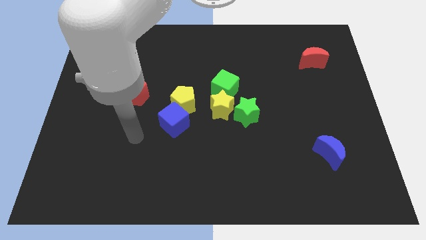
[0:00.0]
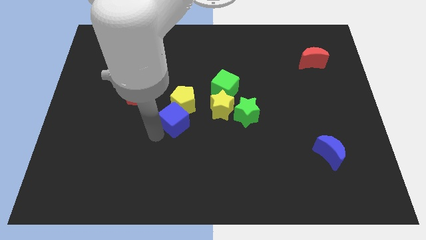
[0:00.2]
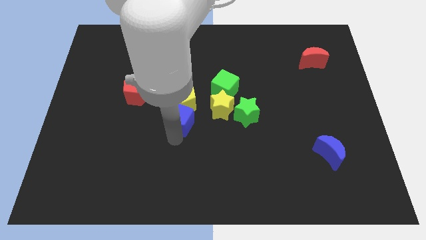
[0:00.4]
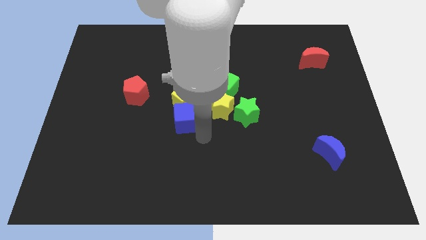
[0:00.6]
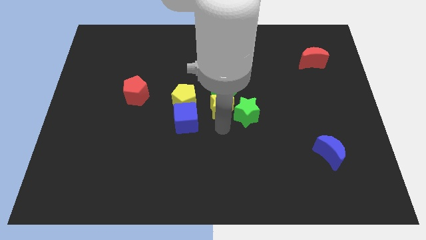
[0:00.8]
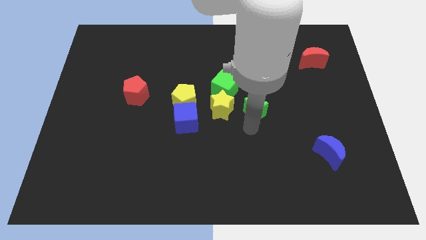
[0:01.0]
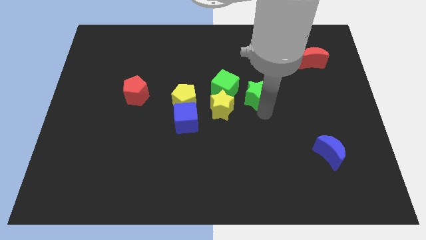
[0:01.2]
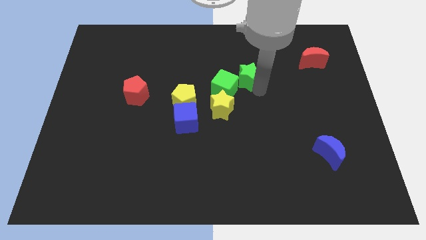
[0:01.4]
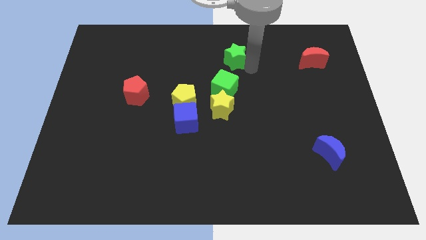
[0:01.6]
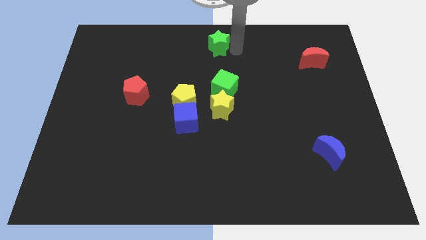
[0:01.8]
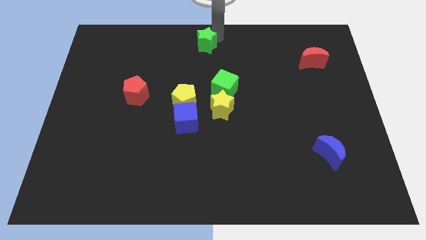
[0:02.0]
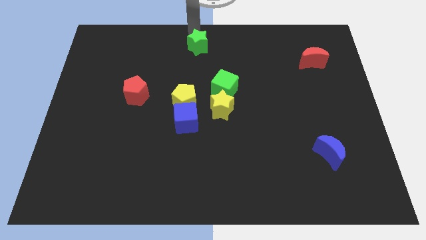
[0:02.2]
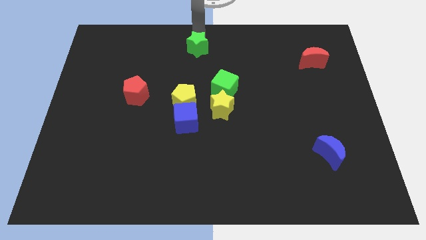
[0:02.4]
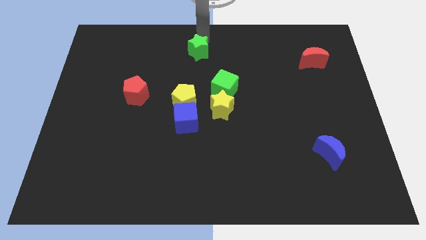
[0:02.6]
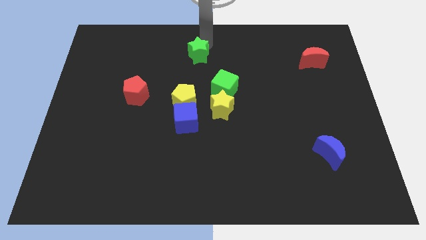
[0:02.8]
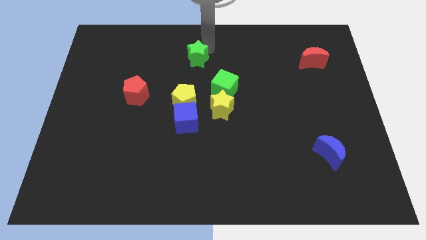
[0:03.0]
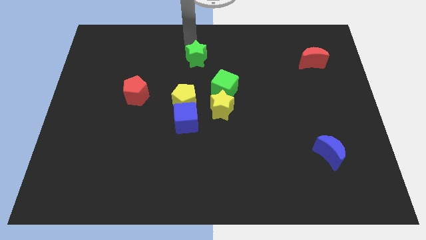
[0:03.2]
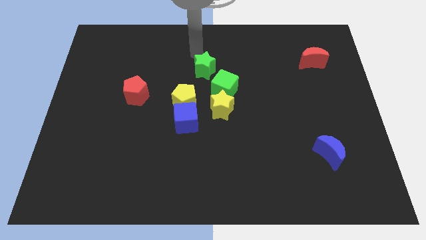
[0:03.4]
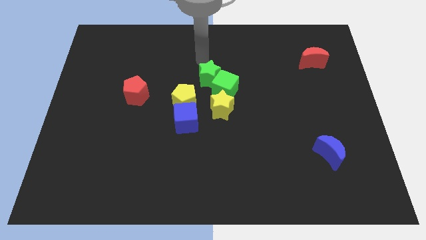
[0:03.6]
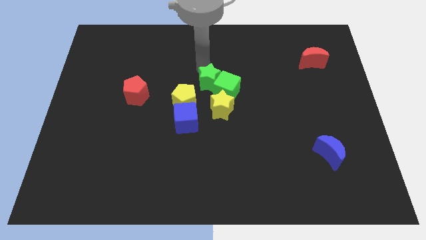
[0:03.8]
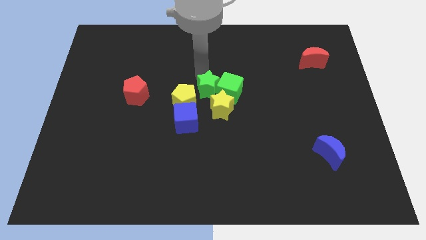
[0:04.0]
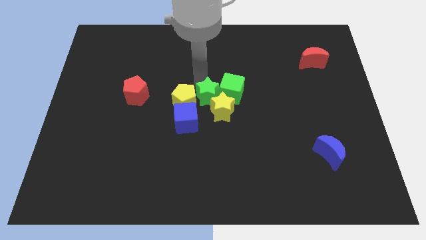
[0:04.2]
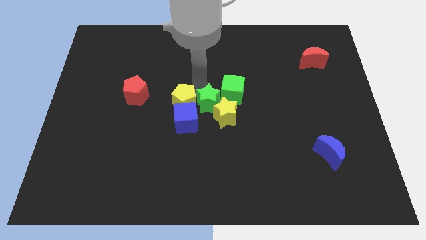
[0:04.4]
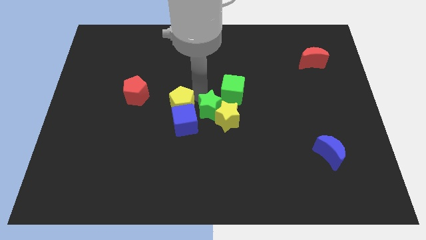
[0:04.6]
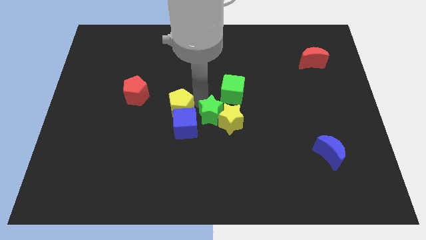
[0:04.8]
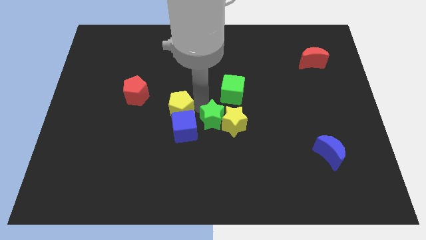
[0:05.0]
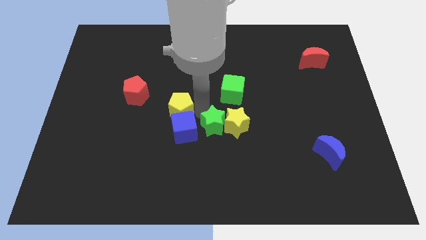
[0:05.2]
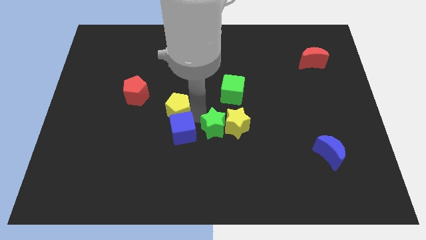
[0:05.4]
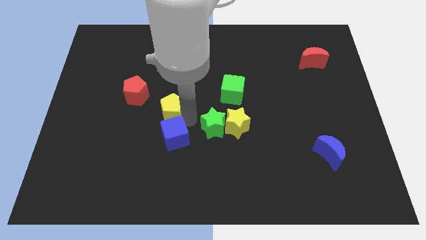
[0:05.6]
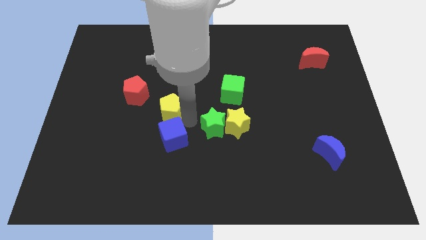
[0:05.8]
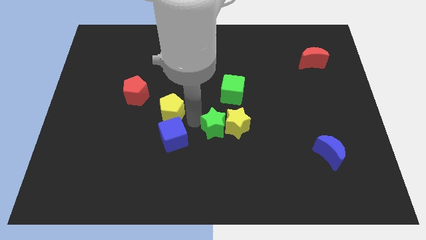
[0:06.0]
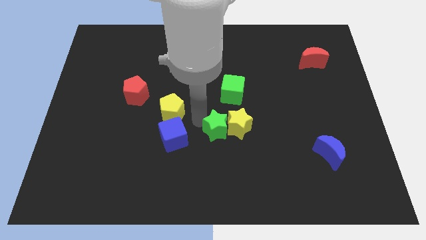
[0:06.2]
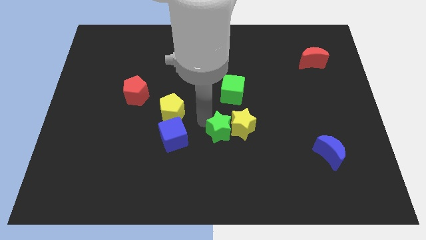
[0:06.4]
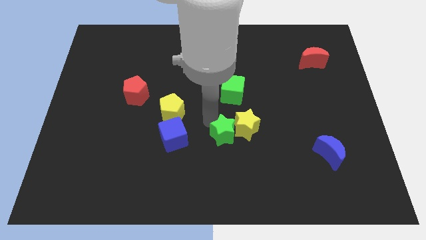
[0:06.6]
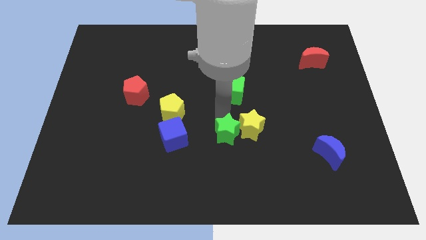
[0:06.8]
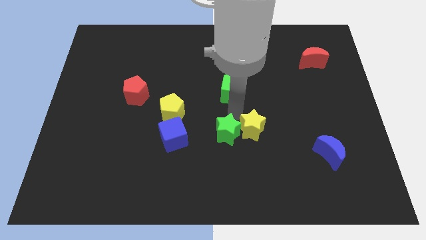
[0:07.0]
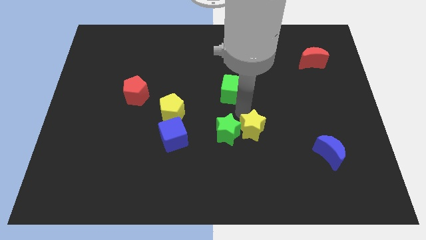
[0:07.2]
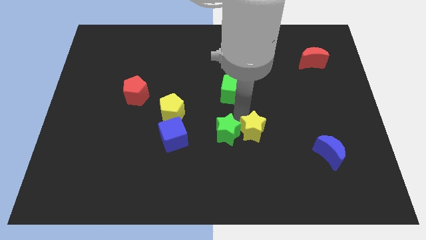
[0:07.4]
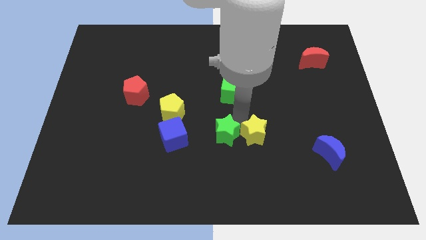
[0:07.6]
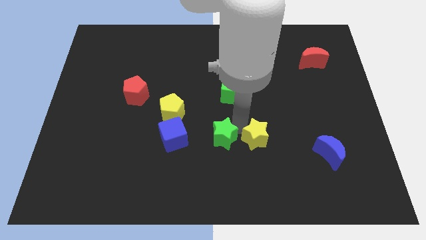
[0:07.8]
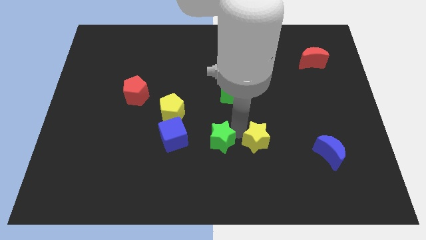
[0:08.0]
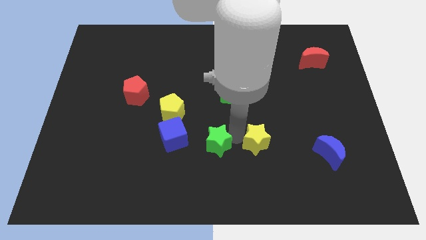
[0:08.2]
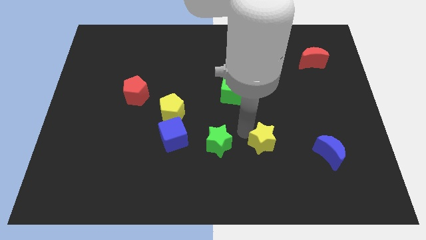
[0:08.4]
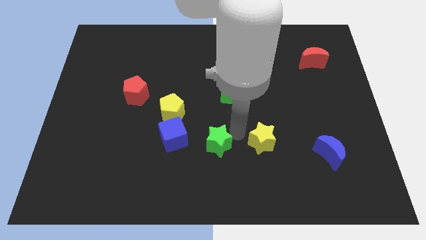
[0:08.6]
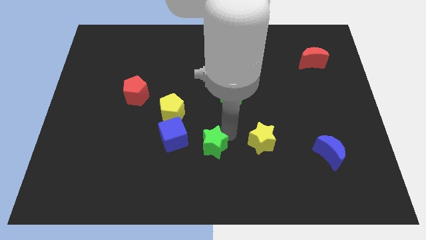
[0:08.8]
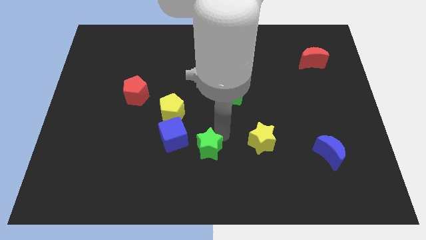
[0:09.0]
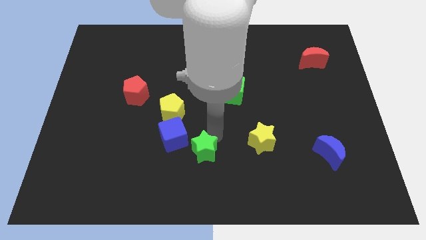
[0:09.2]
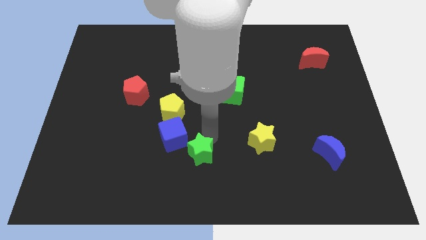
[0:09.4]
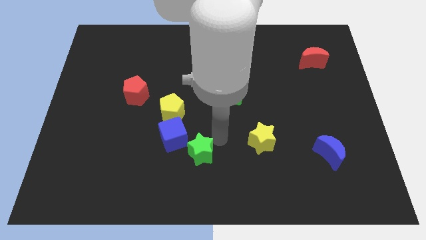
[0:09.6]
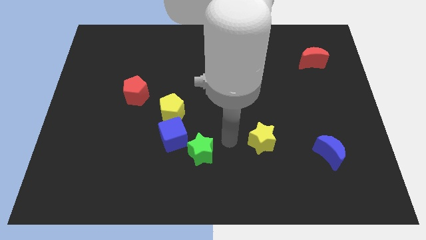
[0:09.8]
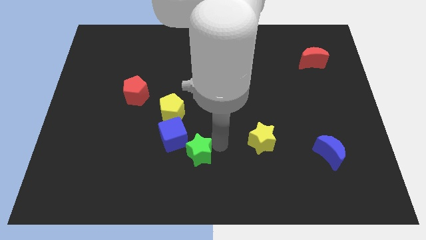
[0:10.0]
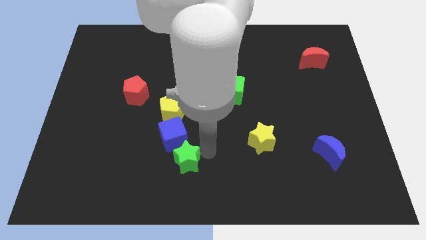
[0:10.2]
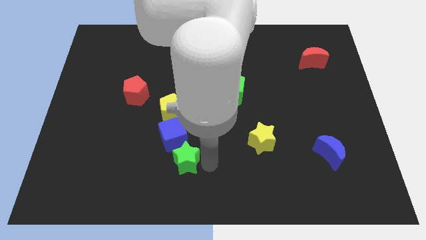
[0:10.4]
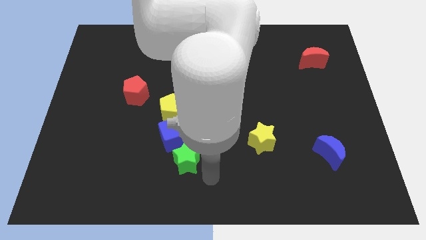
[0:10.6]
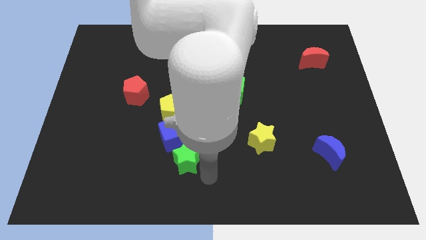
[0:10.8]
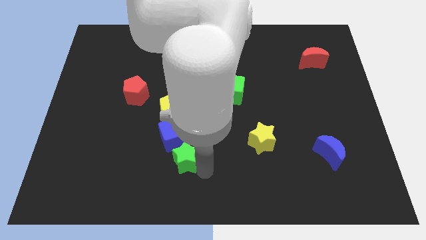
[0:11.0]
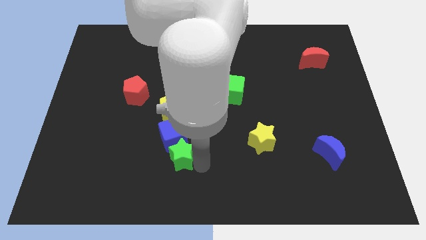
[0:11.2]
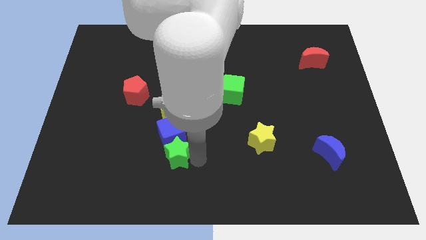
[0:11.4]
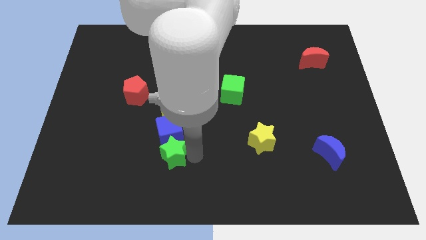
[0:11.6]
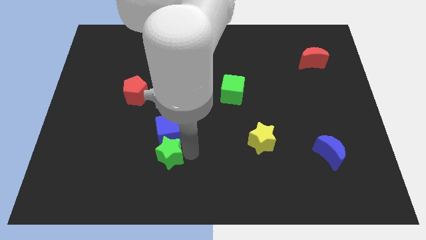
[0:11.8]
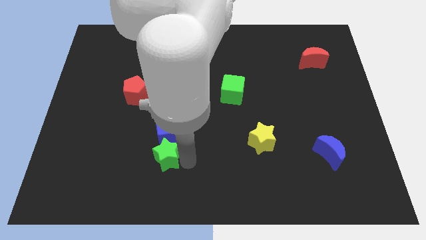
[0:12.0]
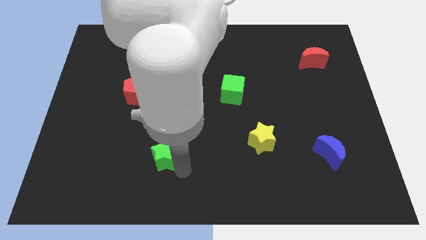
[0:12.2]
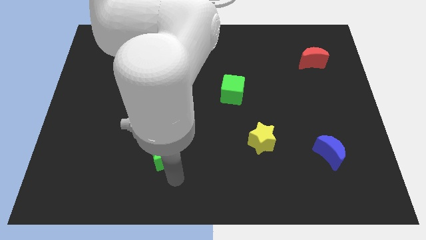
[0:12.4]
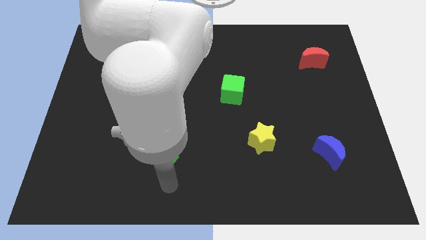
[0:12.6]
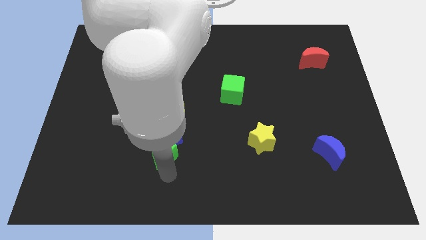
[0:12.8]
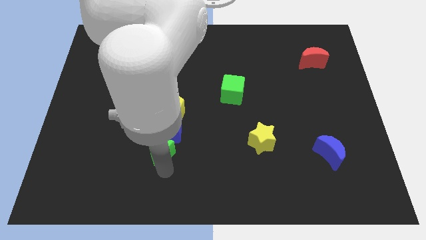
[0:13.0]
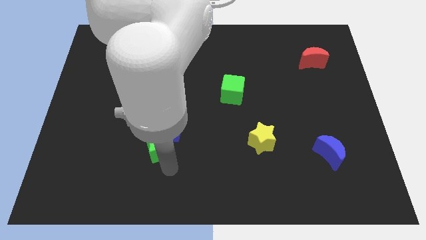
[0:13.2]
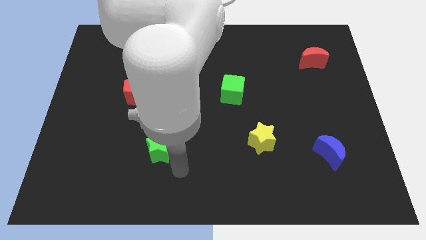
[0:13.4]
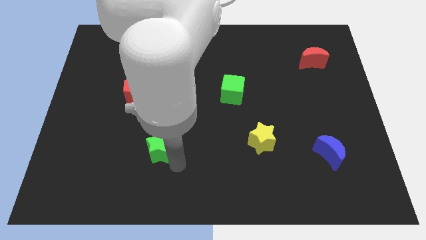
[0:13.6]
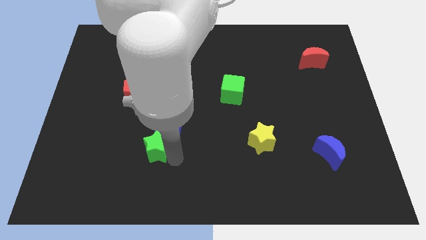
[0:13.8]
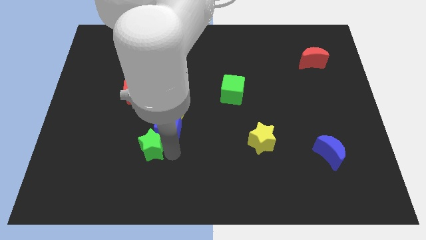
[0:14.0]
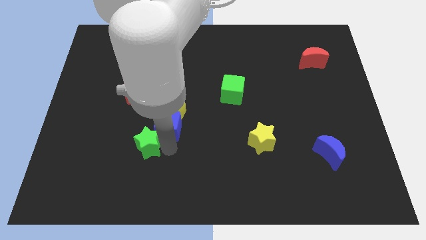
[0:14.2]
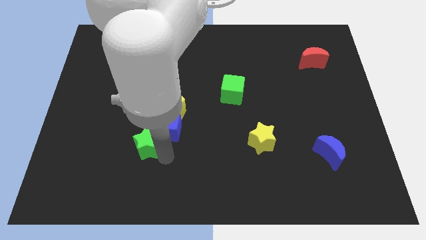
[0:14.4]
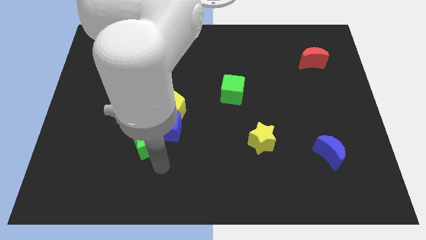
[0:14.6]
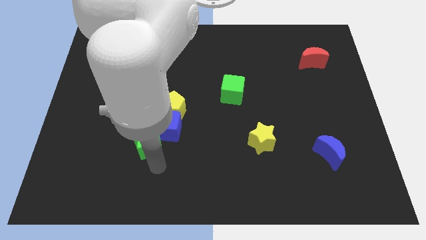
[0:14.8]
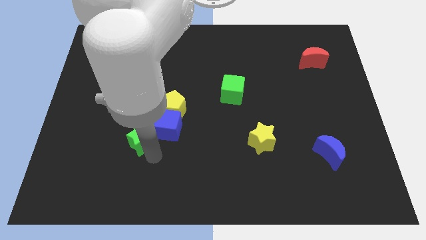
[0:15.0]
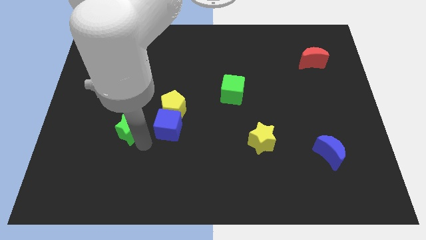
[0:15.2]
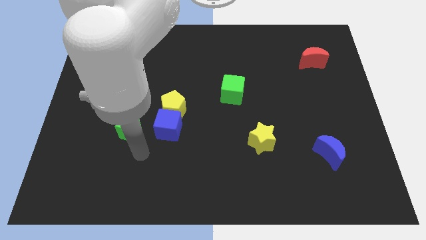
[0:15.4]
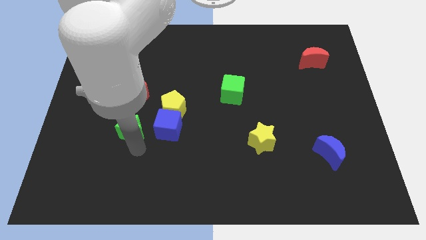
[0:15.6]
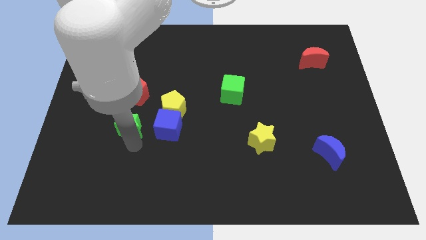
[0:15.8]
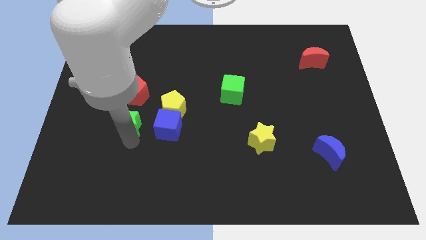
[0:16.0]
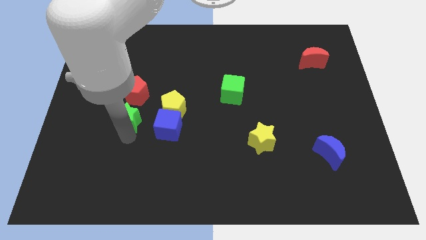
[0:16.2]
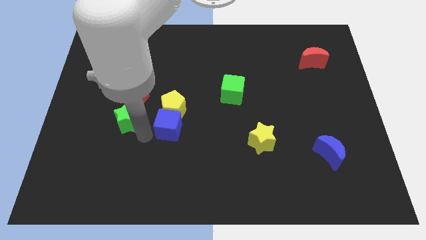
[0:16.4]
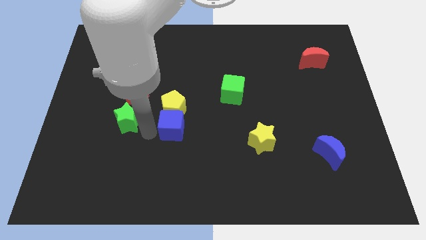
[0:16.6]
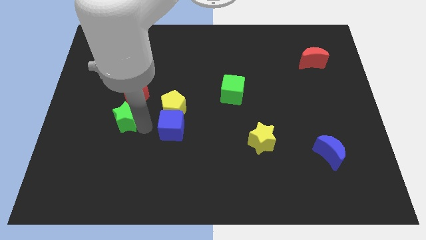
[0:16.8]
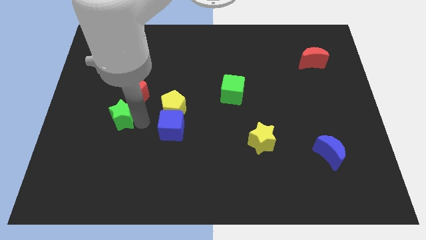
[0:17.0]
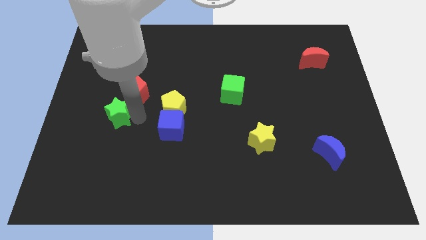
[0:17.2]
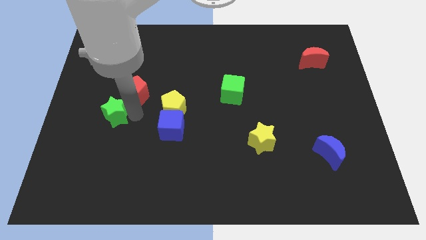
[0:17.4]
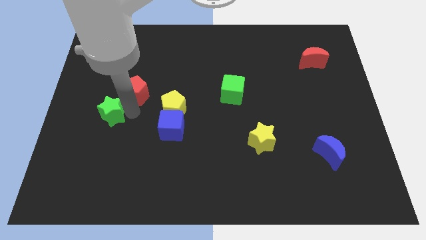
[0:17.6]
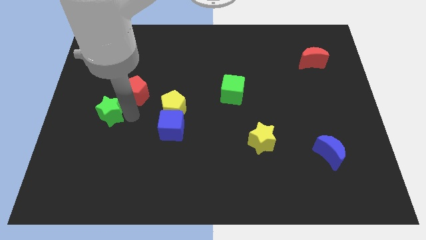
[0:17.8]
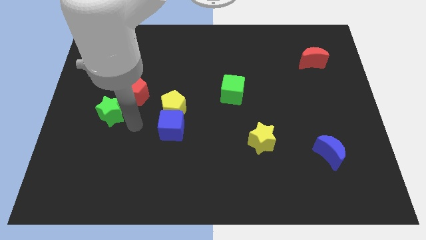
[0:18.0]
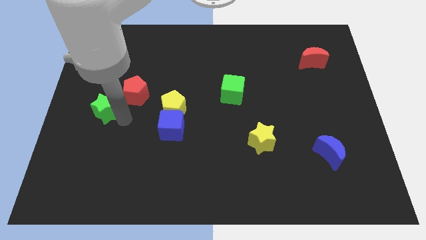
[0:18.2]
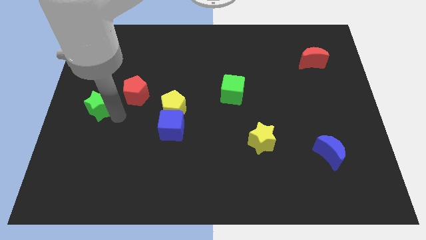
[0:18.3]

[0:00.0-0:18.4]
move the green star to the center left
